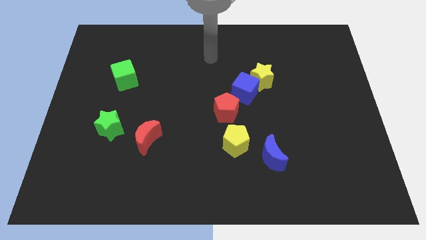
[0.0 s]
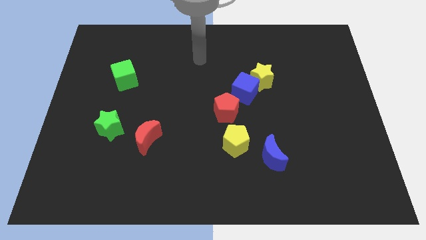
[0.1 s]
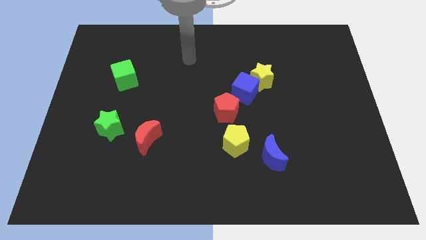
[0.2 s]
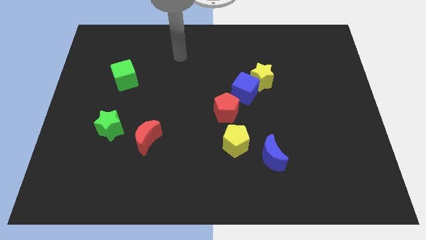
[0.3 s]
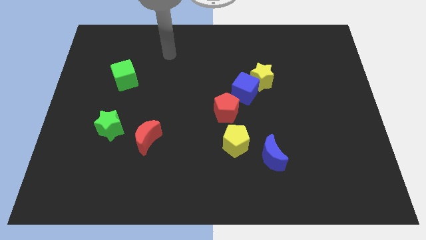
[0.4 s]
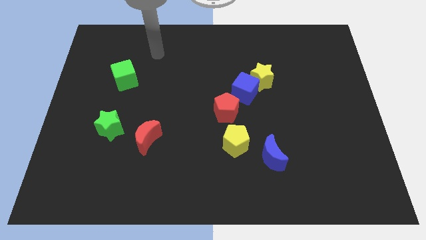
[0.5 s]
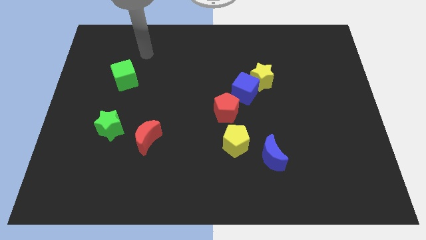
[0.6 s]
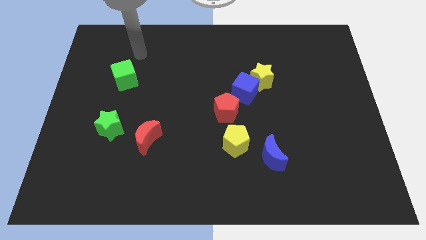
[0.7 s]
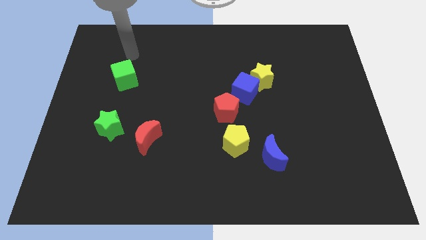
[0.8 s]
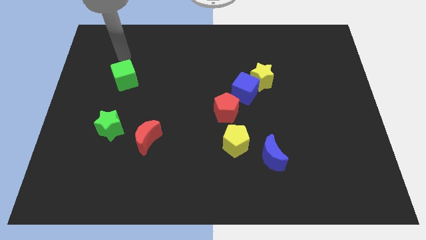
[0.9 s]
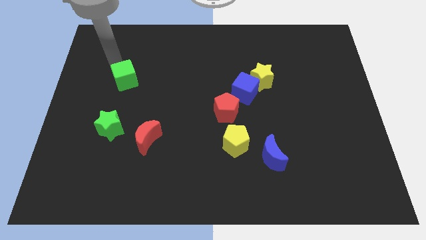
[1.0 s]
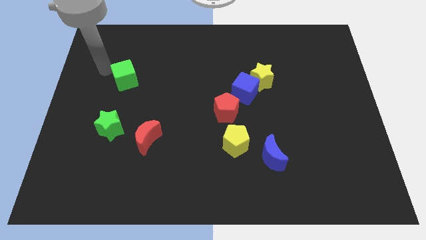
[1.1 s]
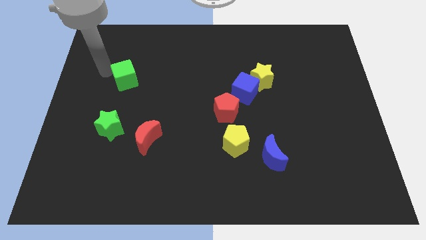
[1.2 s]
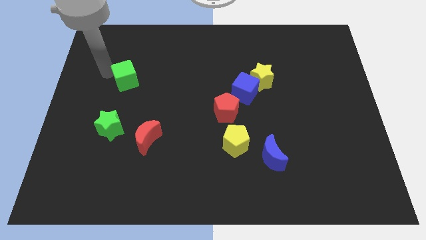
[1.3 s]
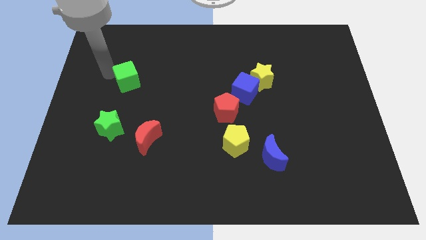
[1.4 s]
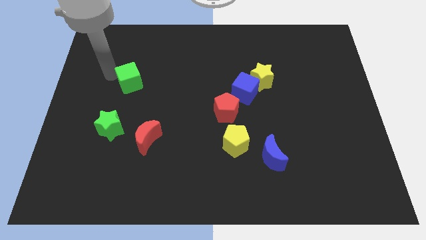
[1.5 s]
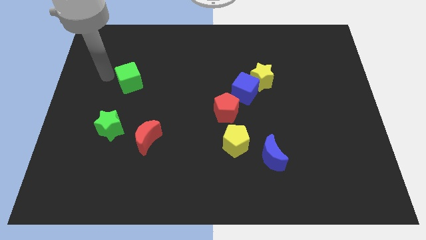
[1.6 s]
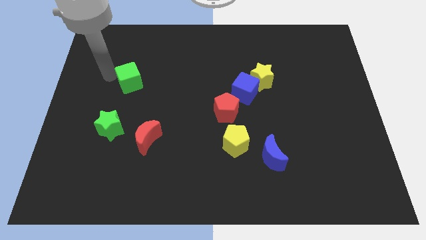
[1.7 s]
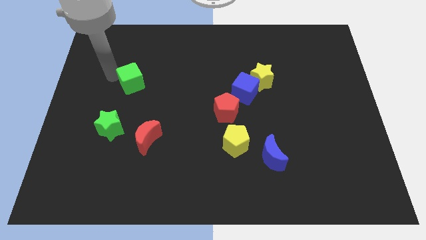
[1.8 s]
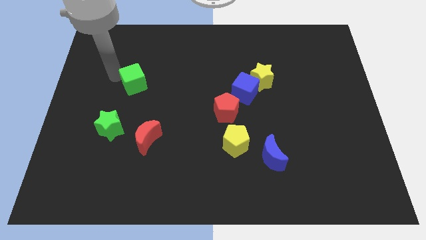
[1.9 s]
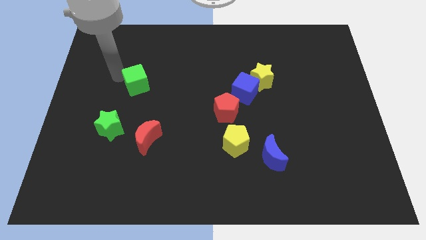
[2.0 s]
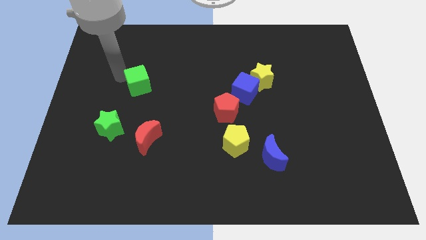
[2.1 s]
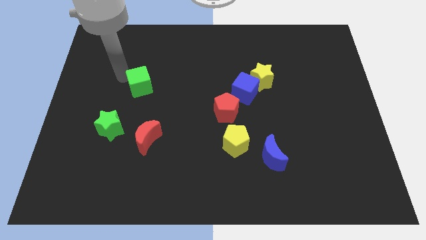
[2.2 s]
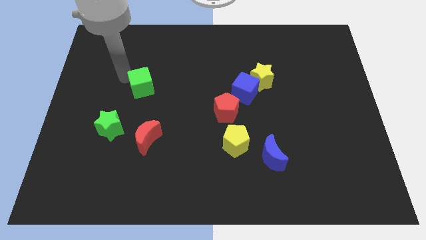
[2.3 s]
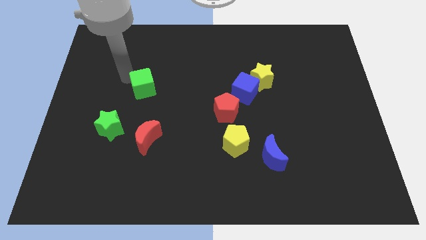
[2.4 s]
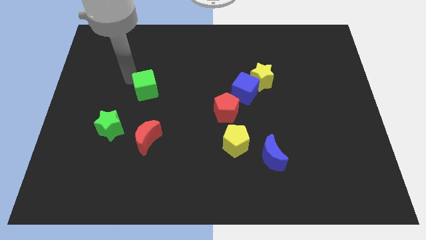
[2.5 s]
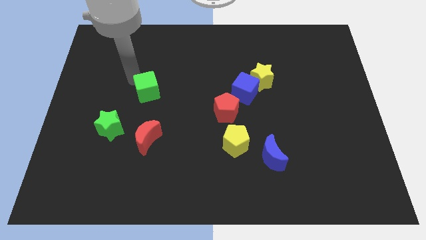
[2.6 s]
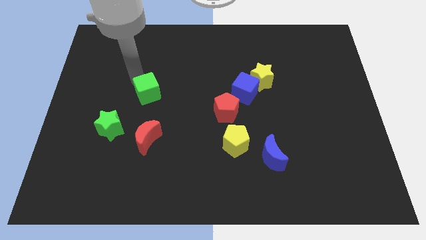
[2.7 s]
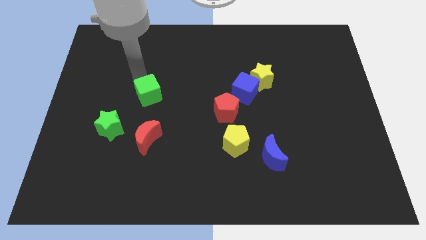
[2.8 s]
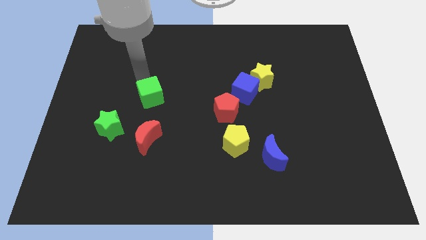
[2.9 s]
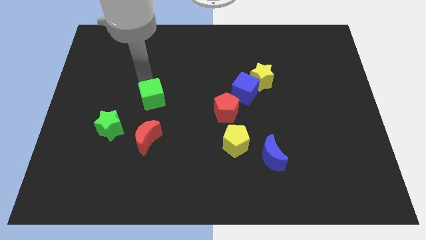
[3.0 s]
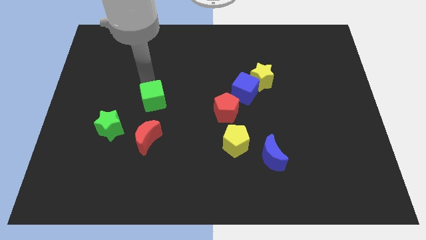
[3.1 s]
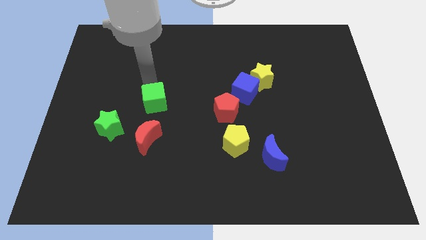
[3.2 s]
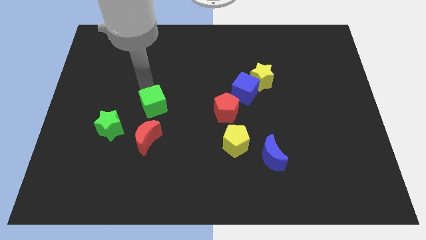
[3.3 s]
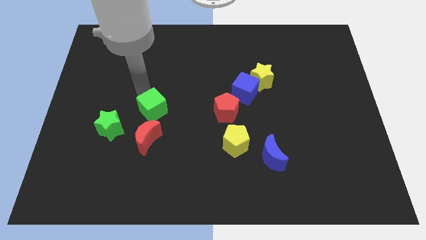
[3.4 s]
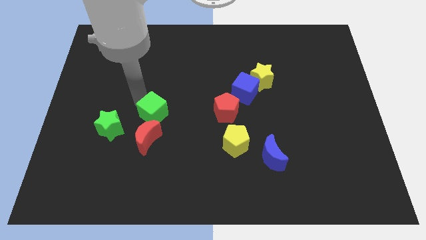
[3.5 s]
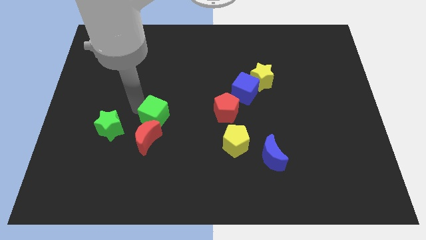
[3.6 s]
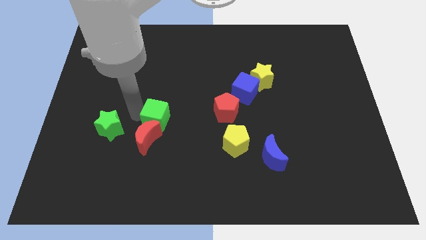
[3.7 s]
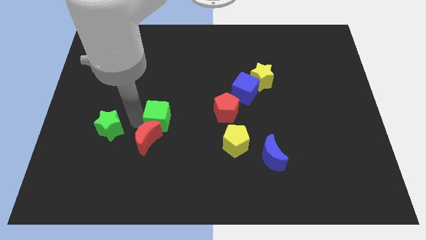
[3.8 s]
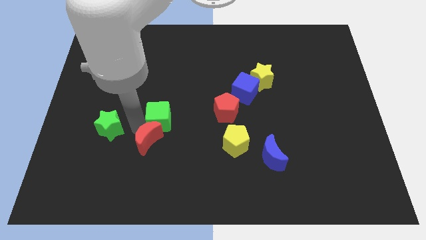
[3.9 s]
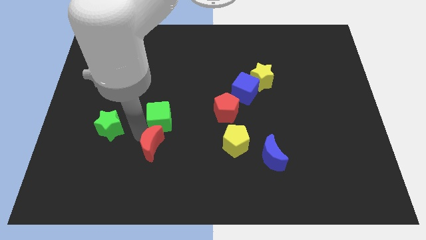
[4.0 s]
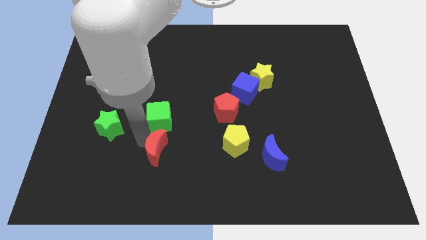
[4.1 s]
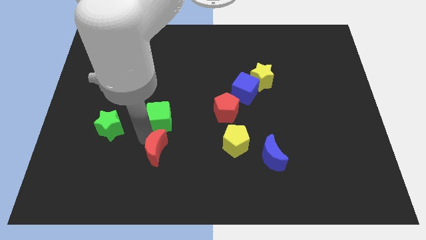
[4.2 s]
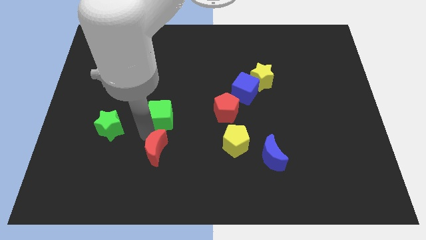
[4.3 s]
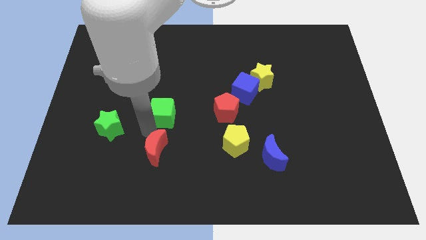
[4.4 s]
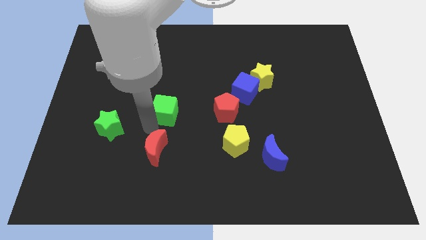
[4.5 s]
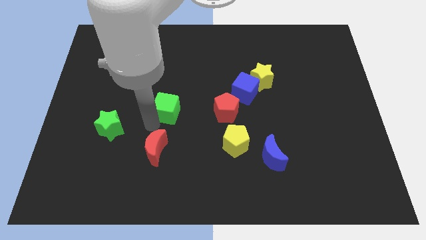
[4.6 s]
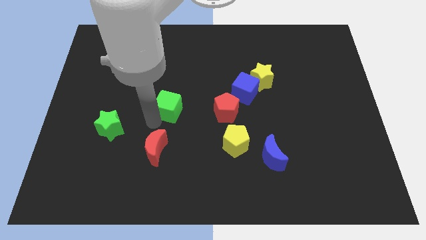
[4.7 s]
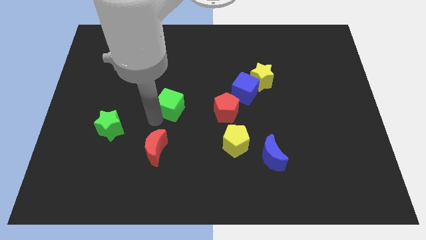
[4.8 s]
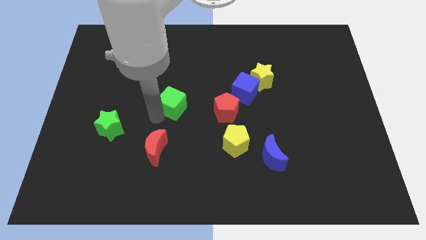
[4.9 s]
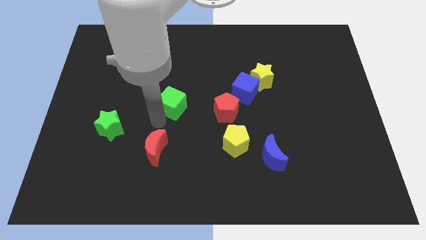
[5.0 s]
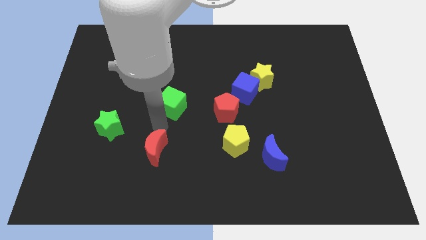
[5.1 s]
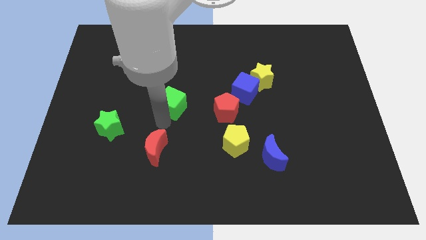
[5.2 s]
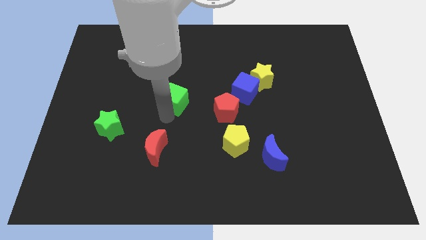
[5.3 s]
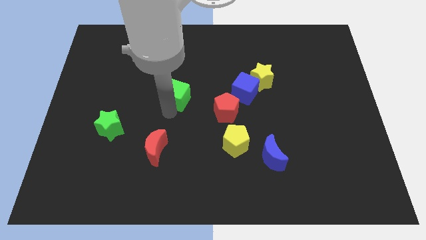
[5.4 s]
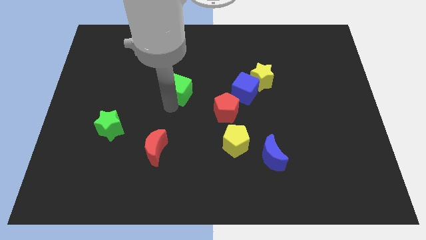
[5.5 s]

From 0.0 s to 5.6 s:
push the green cube left of the blue cube

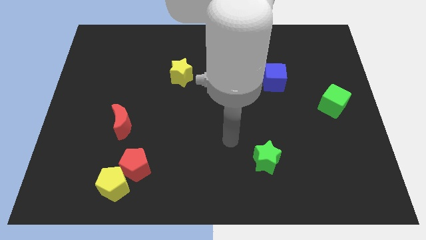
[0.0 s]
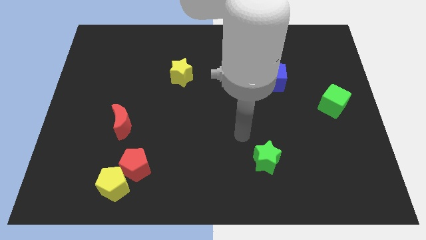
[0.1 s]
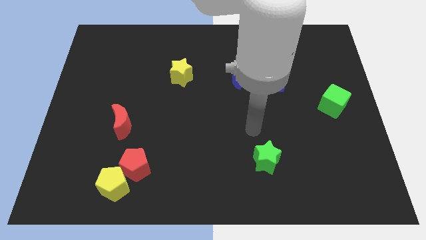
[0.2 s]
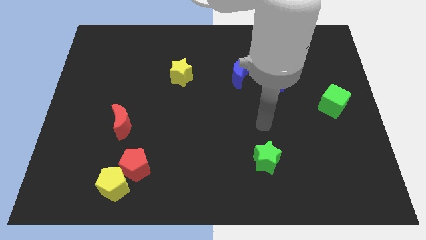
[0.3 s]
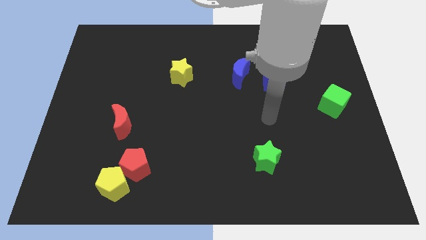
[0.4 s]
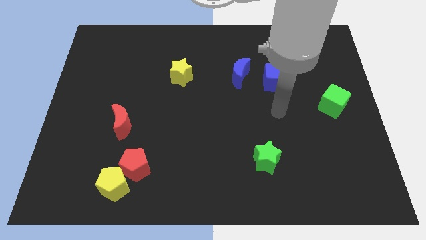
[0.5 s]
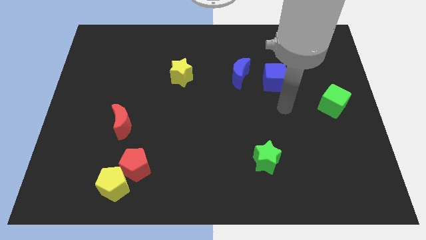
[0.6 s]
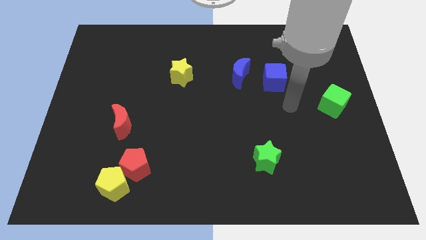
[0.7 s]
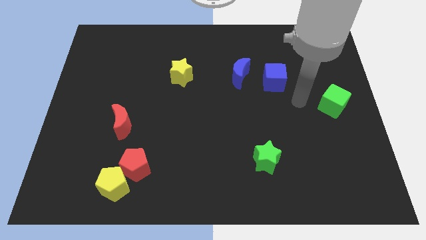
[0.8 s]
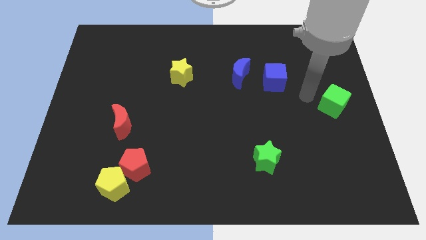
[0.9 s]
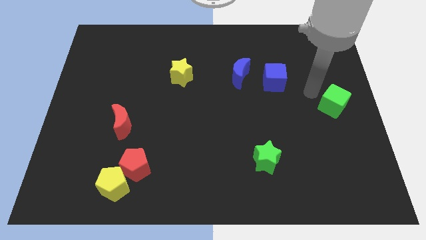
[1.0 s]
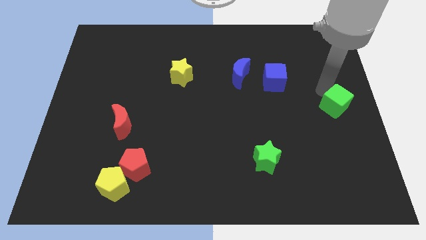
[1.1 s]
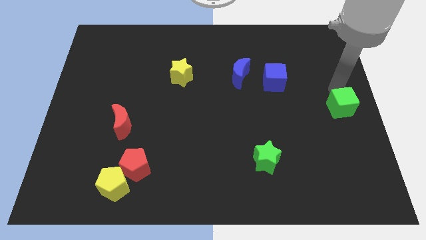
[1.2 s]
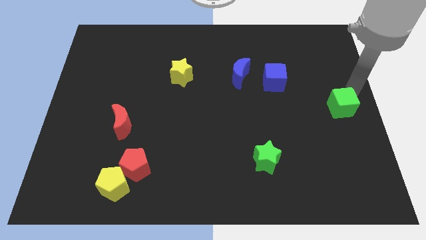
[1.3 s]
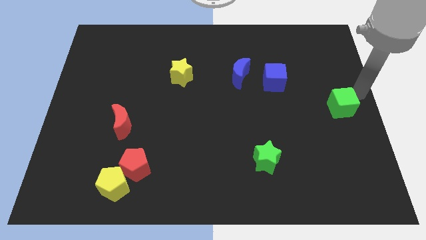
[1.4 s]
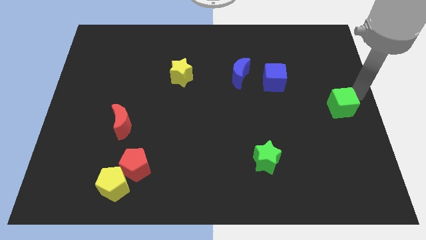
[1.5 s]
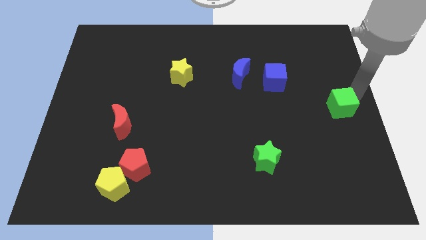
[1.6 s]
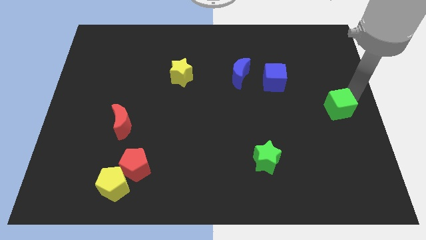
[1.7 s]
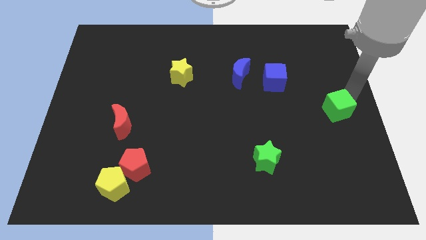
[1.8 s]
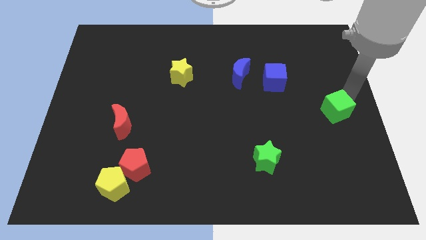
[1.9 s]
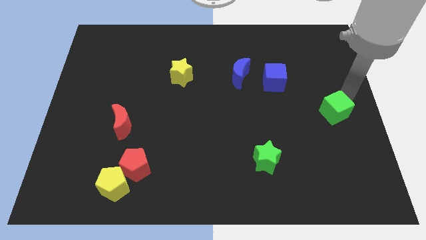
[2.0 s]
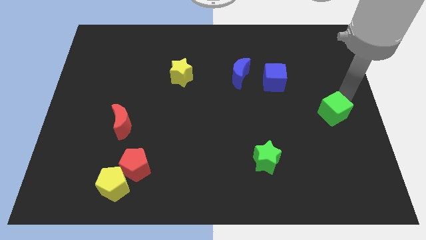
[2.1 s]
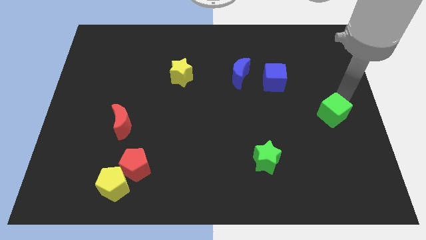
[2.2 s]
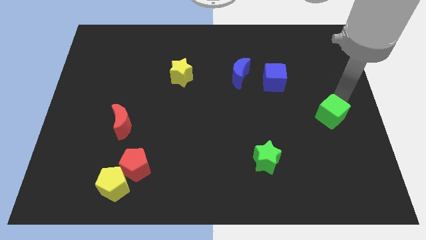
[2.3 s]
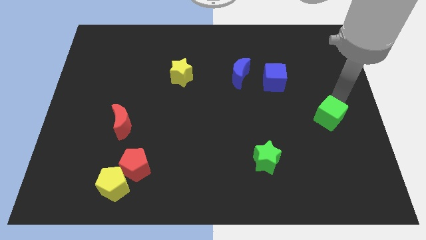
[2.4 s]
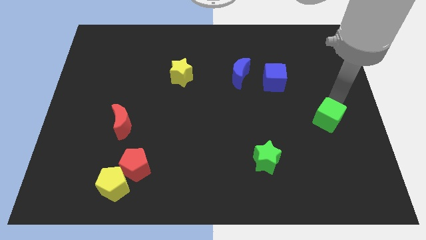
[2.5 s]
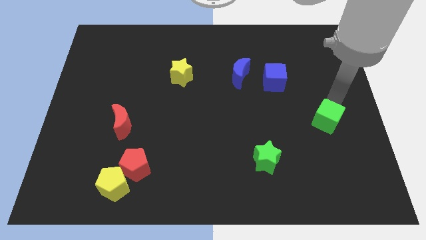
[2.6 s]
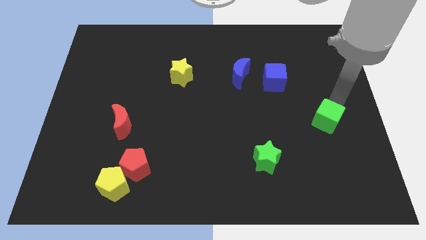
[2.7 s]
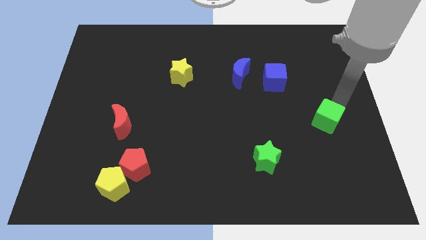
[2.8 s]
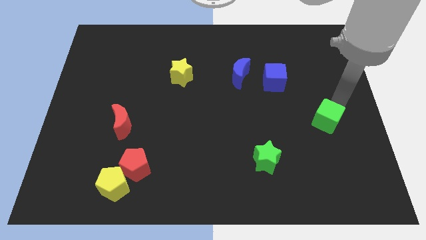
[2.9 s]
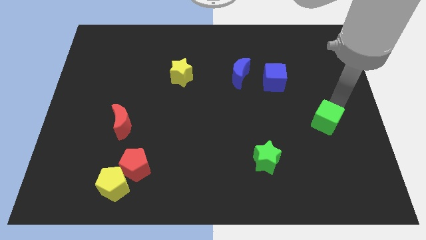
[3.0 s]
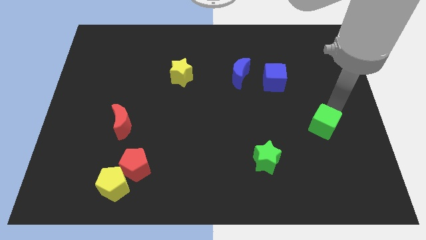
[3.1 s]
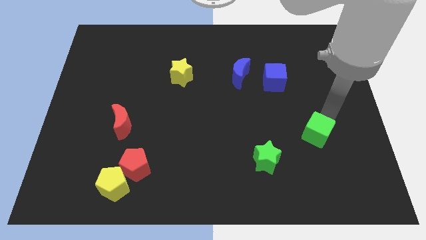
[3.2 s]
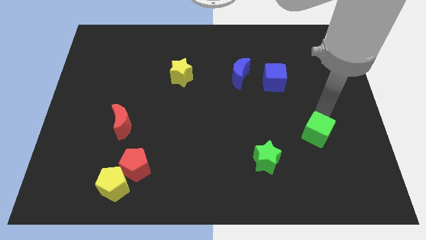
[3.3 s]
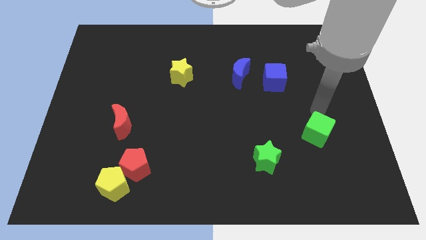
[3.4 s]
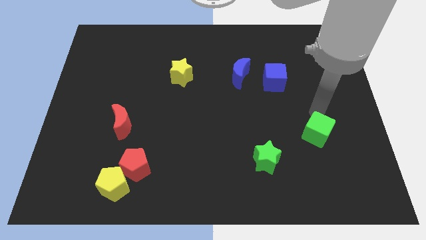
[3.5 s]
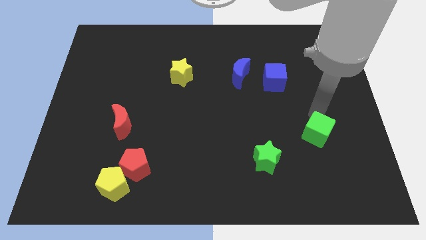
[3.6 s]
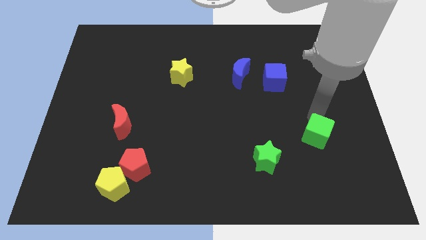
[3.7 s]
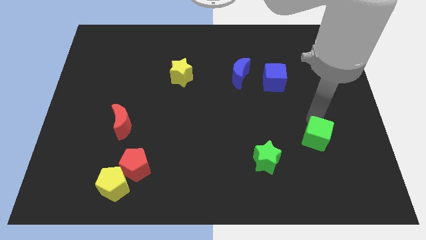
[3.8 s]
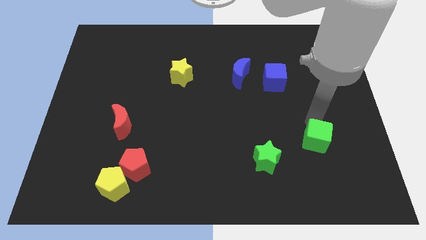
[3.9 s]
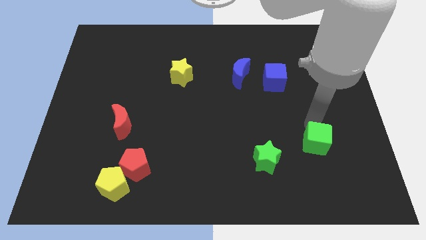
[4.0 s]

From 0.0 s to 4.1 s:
push the green cube to the right of the green star
